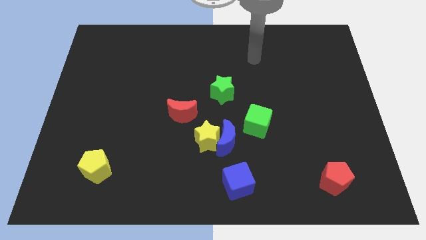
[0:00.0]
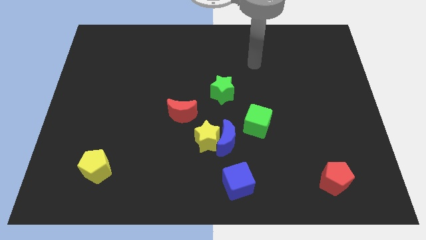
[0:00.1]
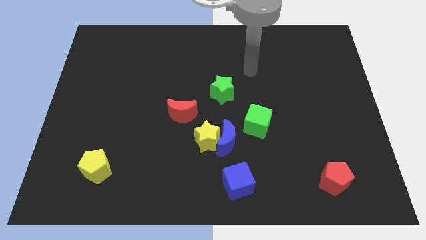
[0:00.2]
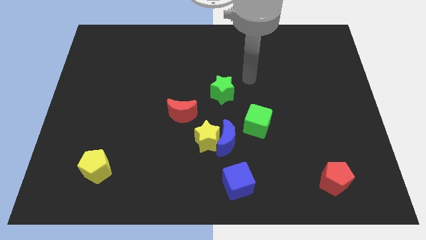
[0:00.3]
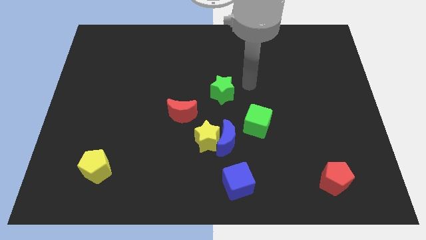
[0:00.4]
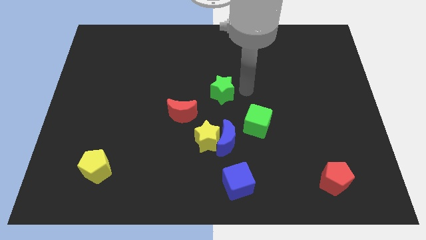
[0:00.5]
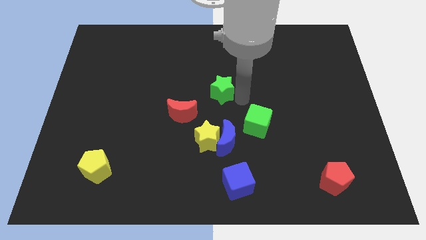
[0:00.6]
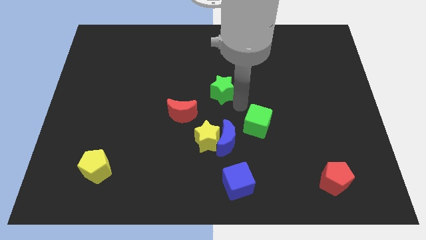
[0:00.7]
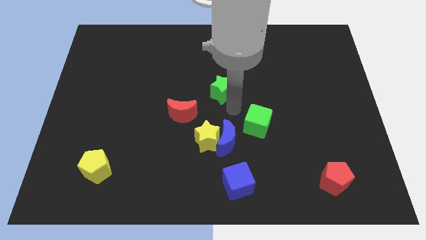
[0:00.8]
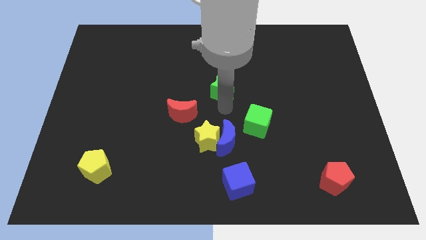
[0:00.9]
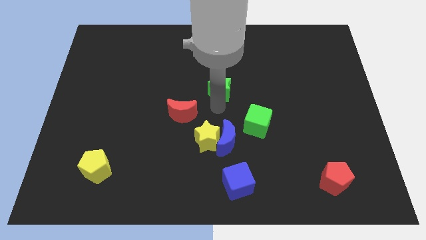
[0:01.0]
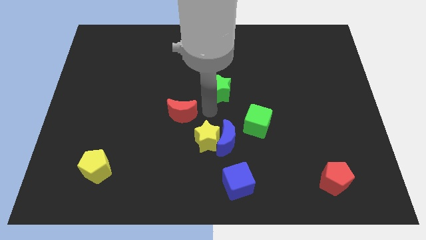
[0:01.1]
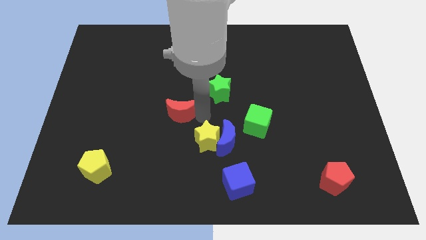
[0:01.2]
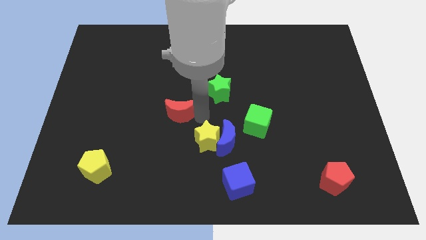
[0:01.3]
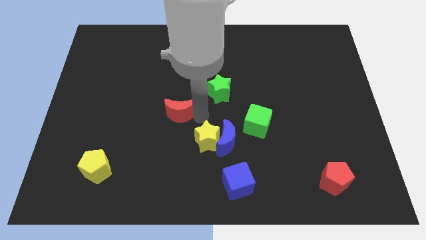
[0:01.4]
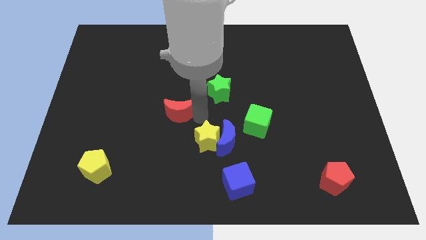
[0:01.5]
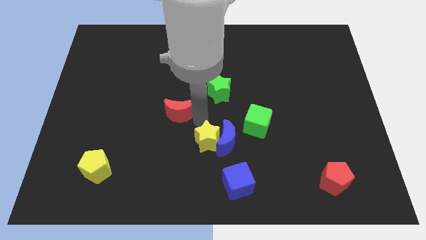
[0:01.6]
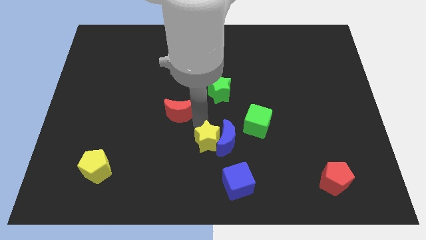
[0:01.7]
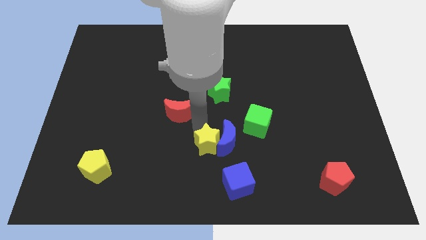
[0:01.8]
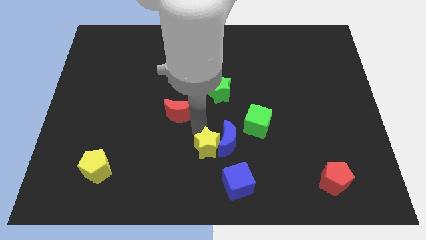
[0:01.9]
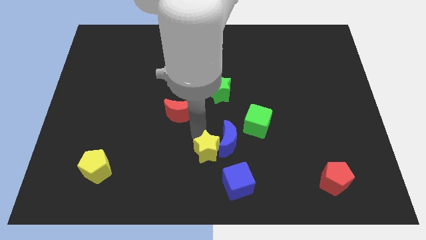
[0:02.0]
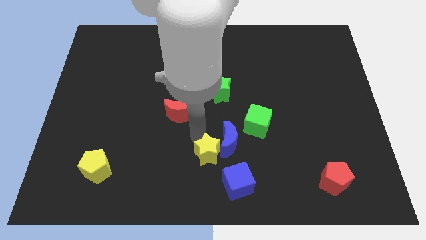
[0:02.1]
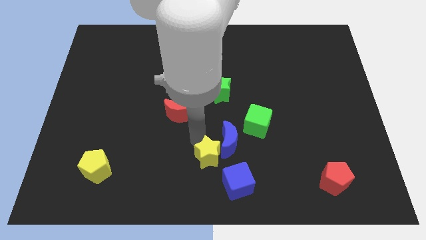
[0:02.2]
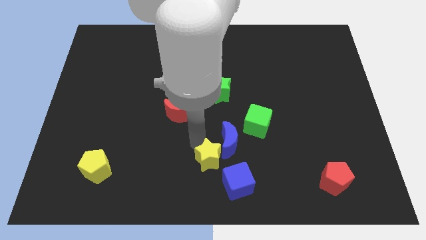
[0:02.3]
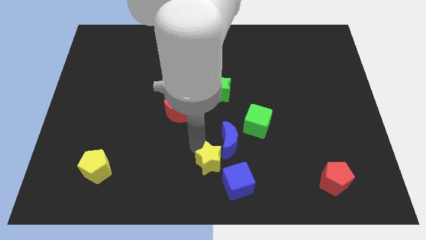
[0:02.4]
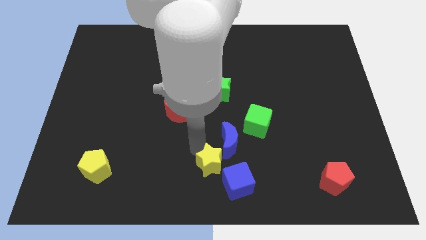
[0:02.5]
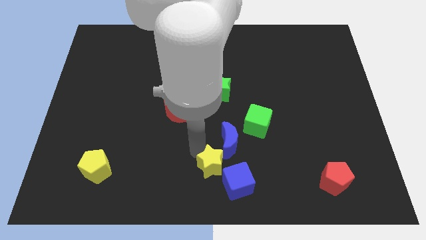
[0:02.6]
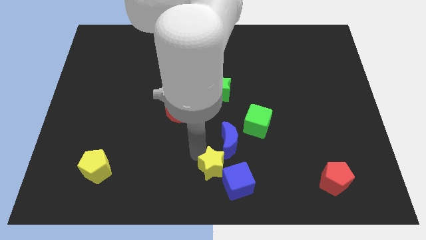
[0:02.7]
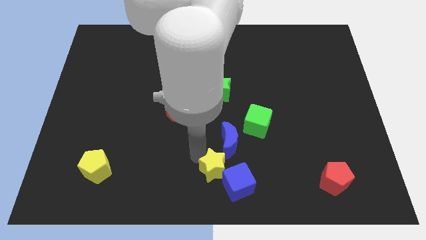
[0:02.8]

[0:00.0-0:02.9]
move the yellow star away from the blue moon and red moon

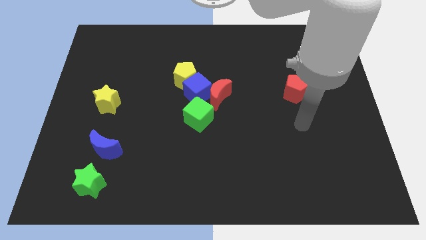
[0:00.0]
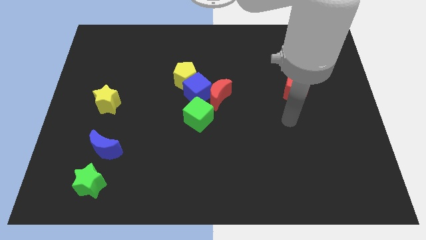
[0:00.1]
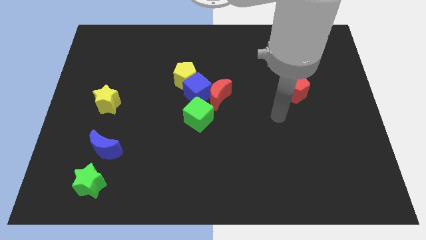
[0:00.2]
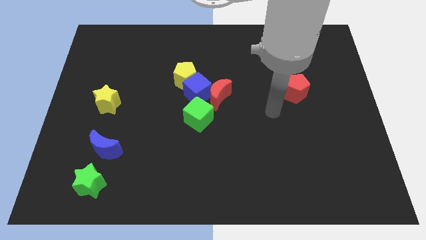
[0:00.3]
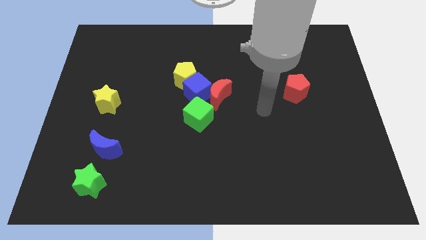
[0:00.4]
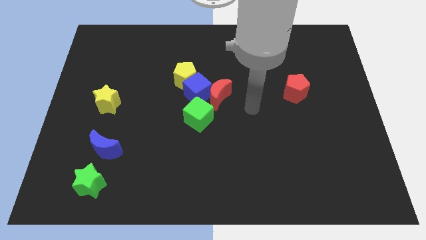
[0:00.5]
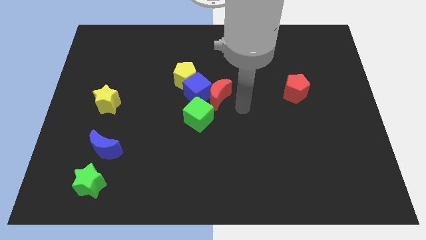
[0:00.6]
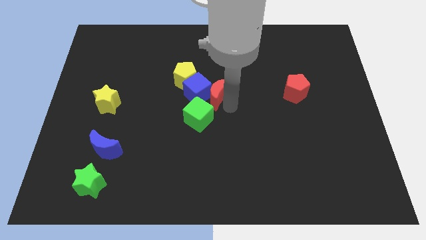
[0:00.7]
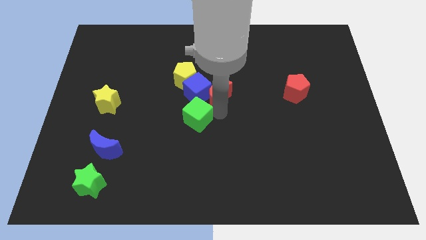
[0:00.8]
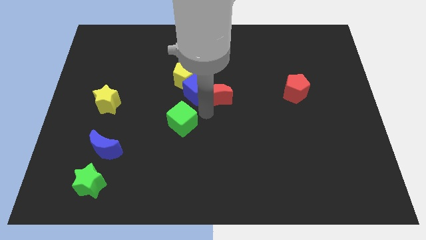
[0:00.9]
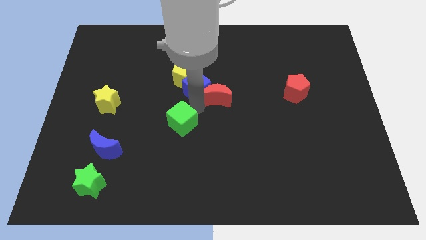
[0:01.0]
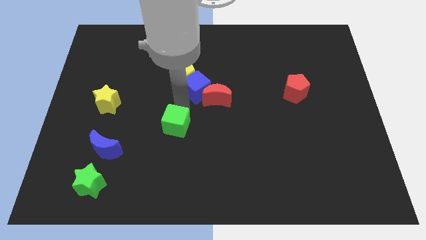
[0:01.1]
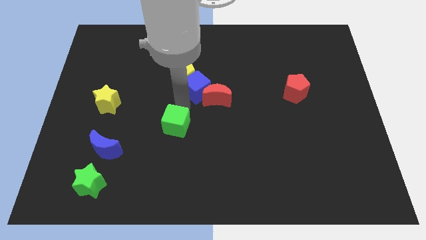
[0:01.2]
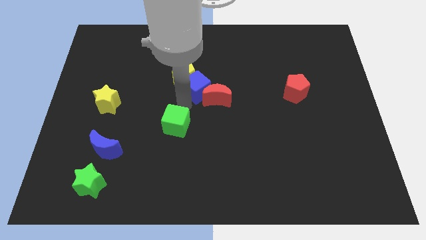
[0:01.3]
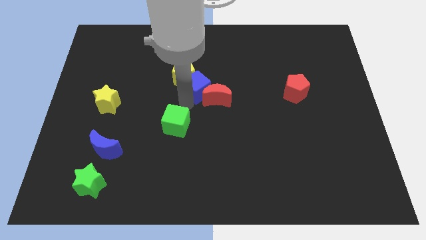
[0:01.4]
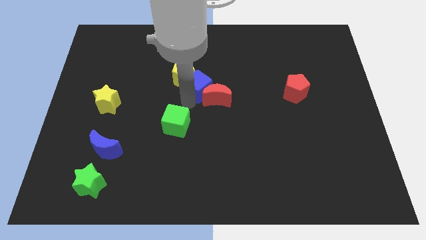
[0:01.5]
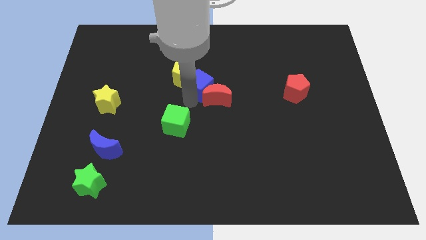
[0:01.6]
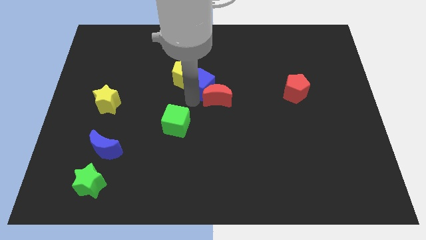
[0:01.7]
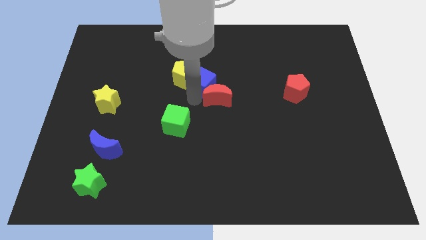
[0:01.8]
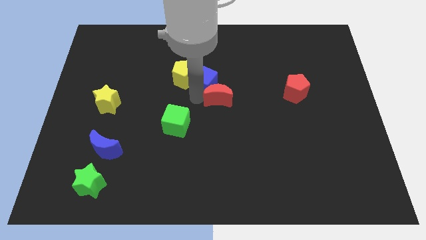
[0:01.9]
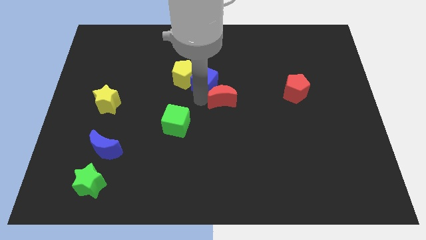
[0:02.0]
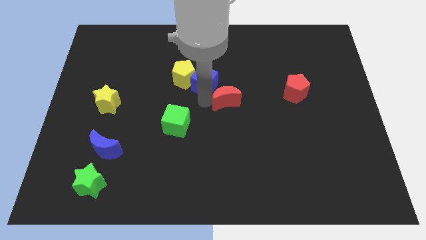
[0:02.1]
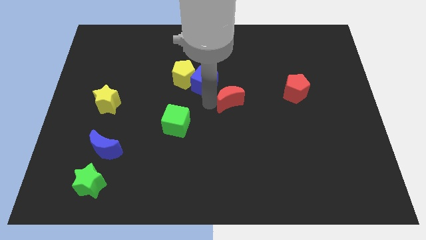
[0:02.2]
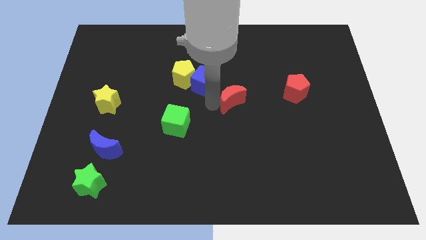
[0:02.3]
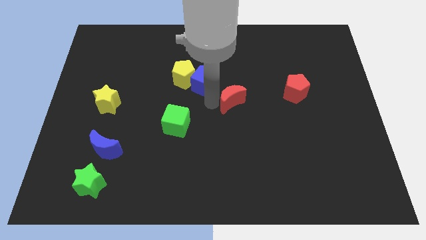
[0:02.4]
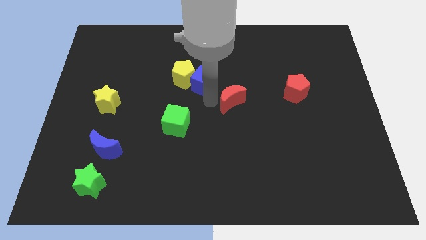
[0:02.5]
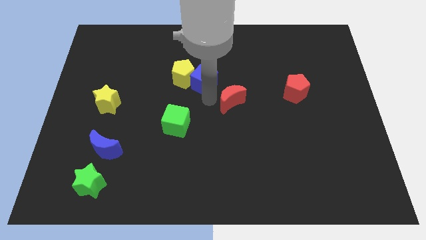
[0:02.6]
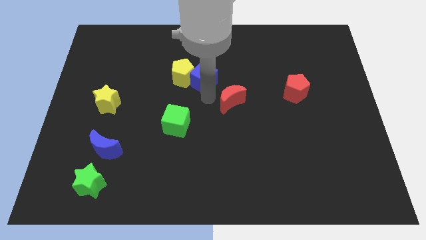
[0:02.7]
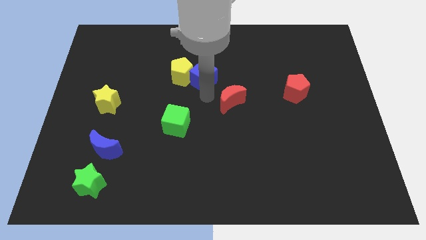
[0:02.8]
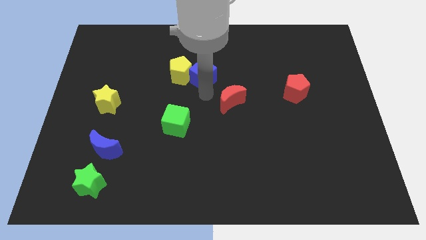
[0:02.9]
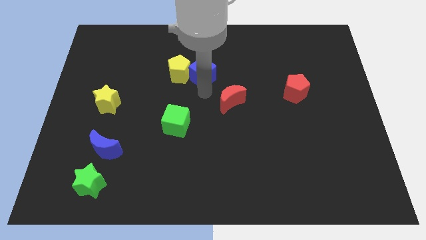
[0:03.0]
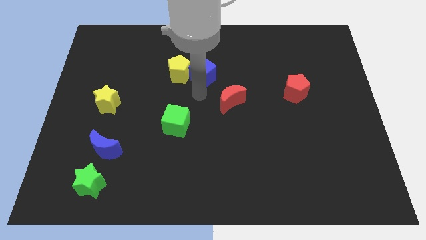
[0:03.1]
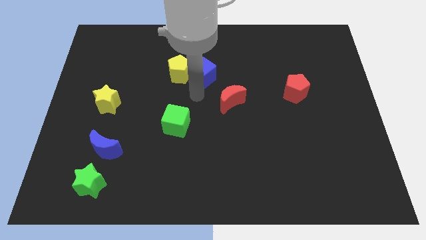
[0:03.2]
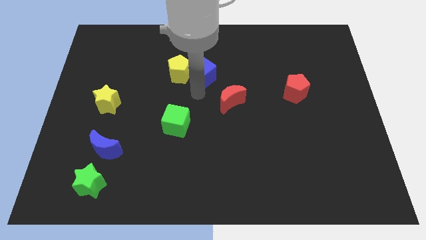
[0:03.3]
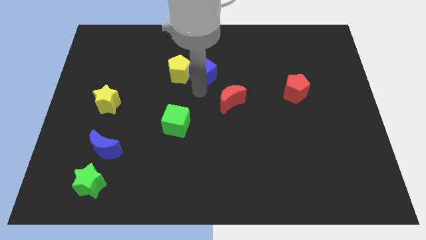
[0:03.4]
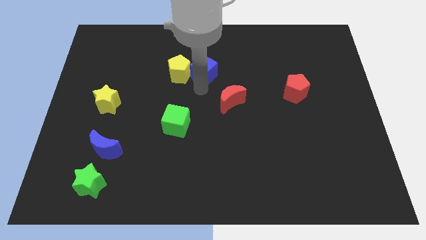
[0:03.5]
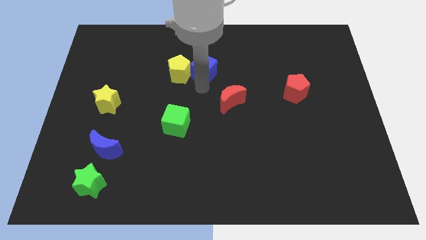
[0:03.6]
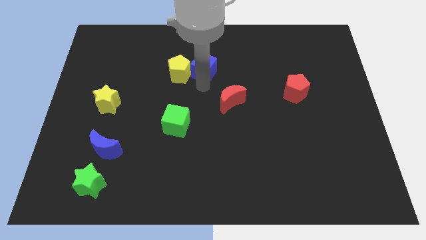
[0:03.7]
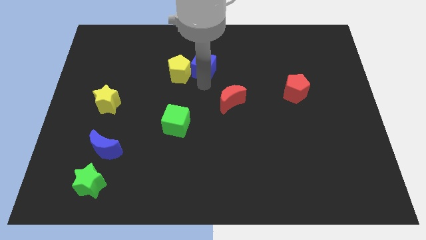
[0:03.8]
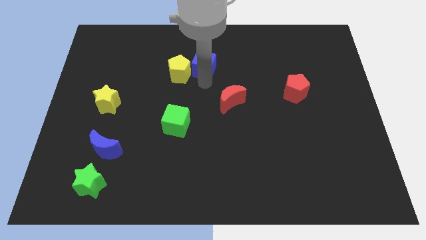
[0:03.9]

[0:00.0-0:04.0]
pull the blue cube apart from the red moon, yellow pentagon, and green cube

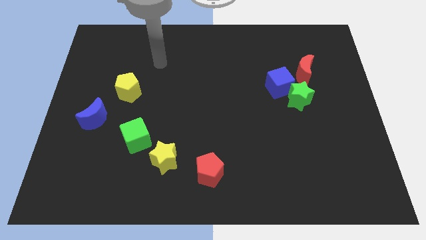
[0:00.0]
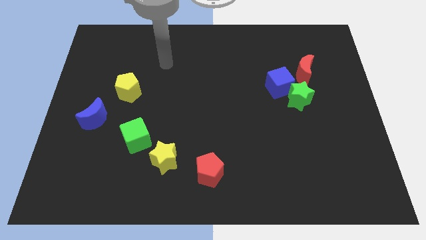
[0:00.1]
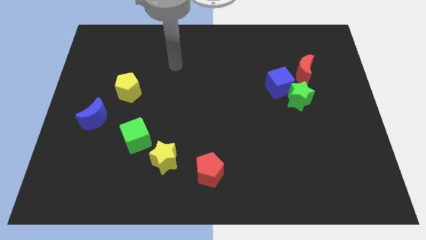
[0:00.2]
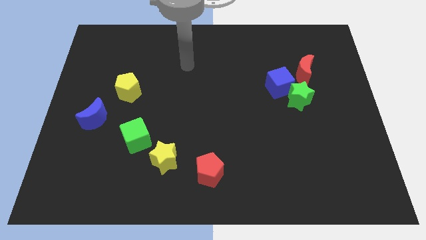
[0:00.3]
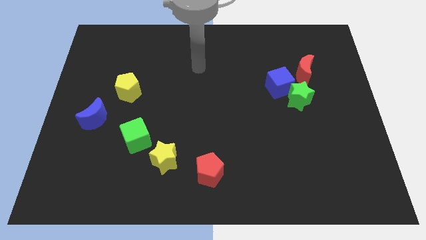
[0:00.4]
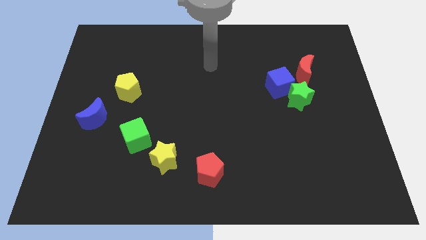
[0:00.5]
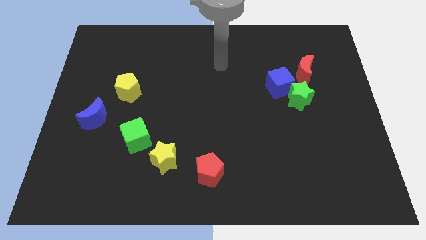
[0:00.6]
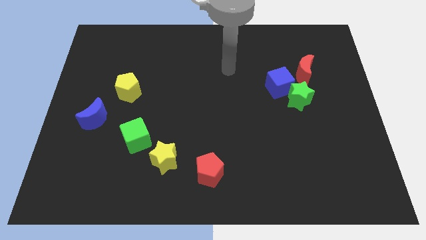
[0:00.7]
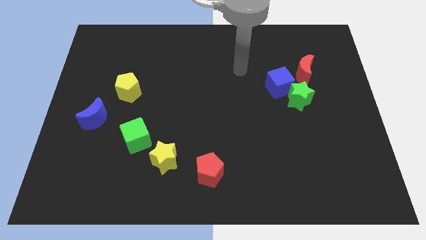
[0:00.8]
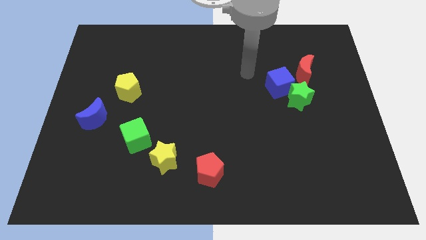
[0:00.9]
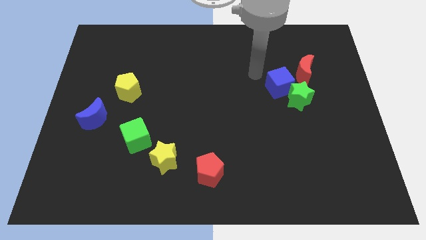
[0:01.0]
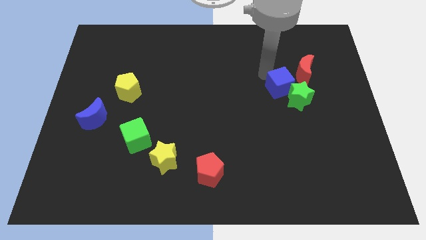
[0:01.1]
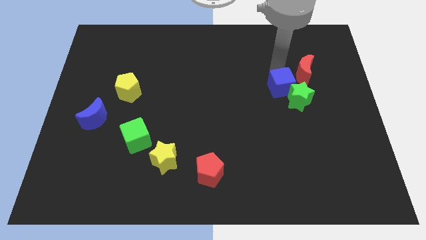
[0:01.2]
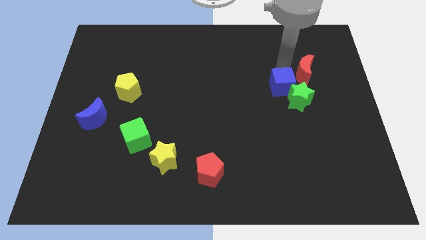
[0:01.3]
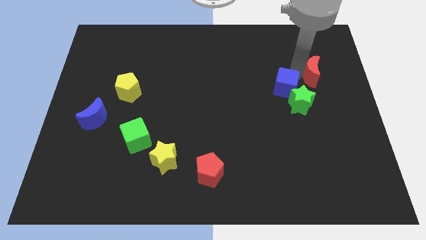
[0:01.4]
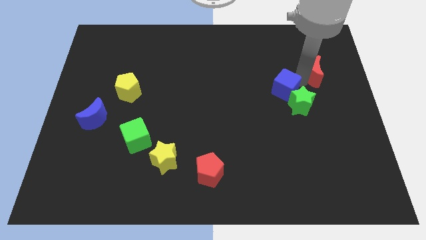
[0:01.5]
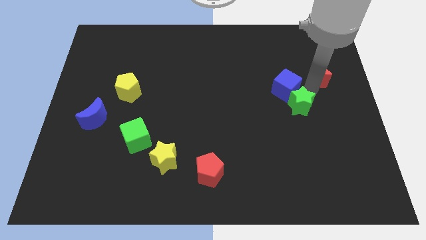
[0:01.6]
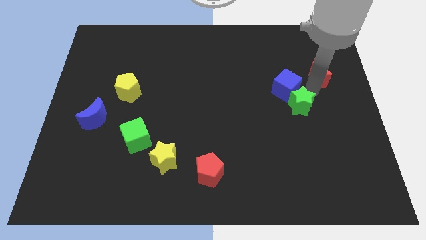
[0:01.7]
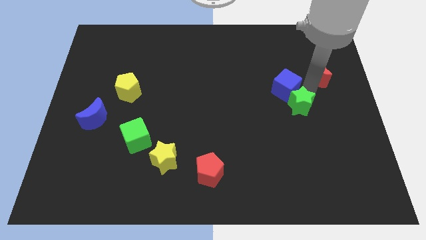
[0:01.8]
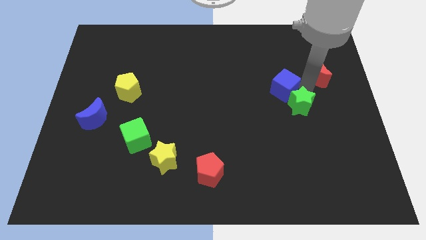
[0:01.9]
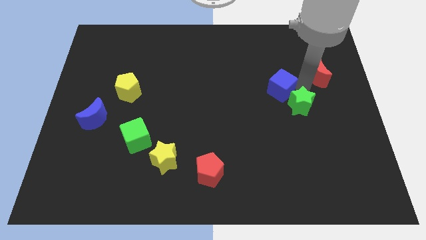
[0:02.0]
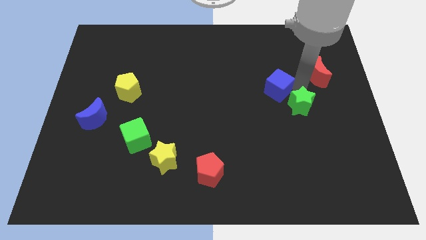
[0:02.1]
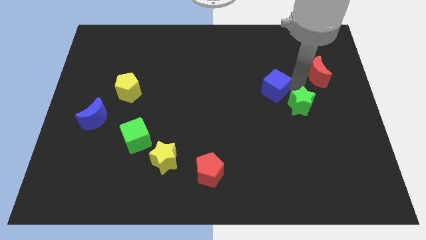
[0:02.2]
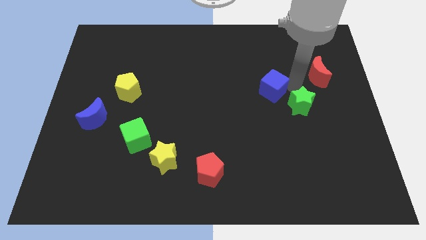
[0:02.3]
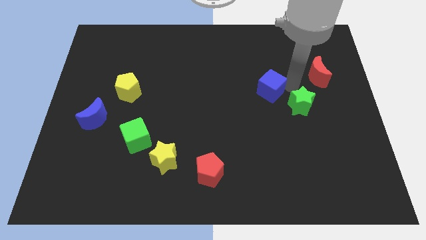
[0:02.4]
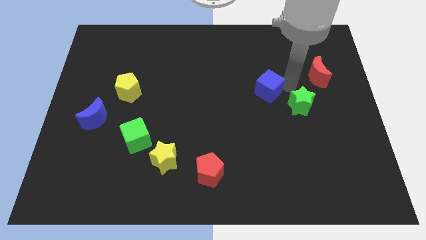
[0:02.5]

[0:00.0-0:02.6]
separate the blue cube from the green star and red moon
